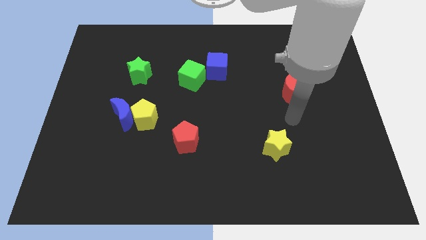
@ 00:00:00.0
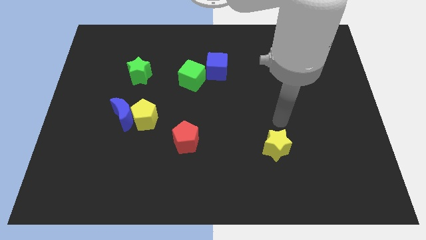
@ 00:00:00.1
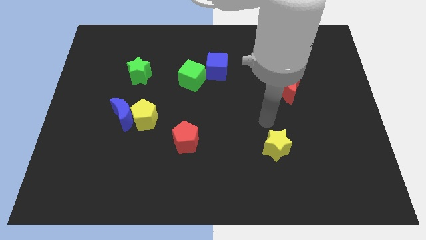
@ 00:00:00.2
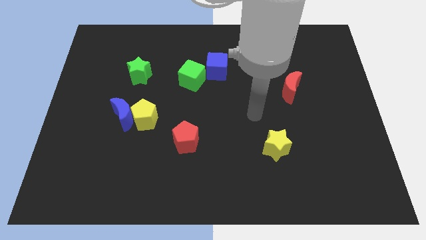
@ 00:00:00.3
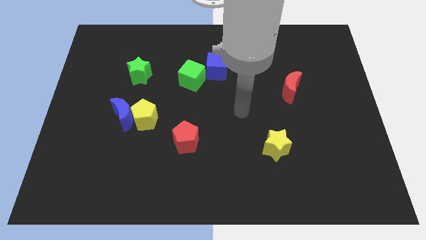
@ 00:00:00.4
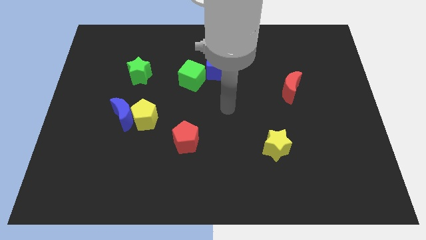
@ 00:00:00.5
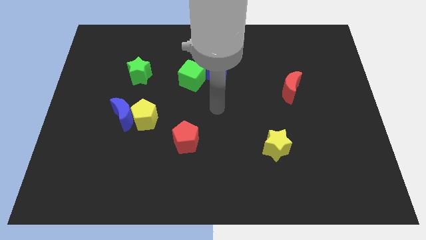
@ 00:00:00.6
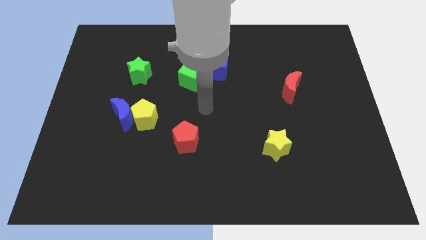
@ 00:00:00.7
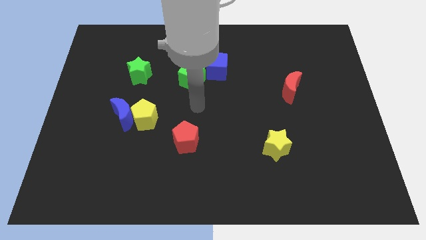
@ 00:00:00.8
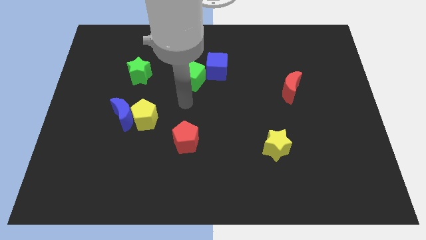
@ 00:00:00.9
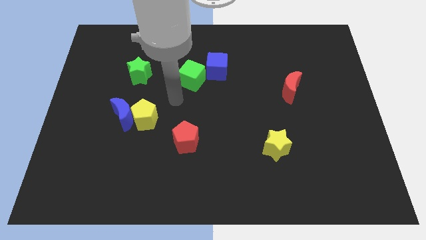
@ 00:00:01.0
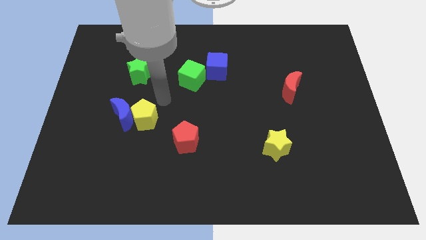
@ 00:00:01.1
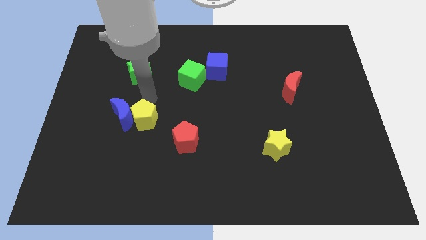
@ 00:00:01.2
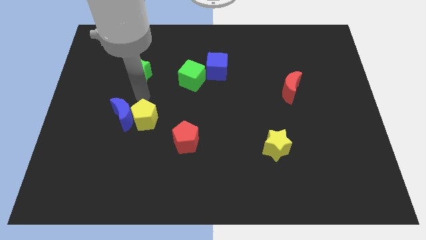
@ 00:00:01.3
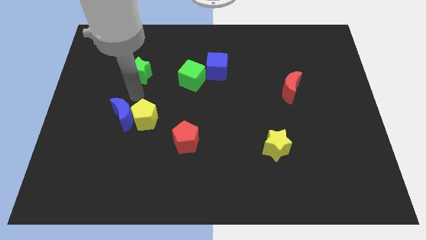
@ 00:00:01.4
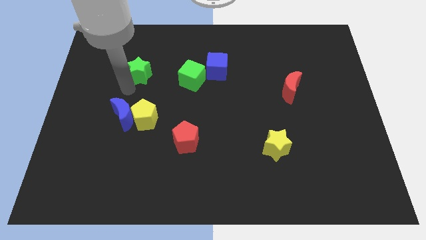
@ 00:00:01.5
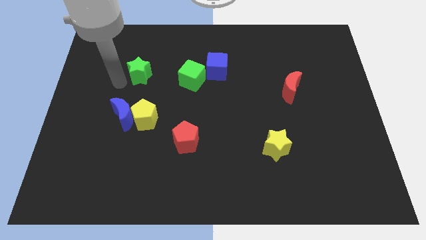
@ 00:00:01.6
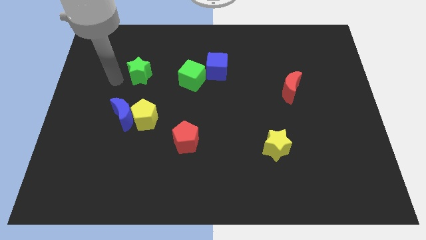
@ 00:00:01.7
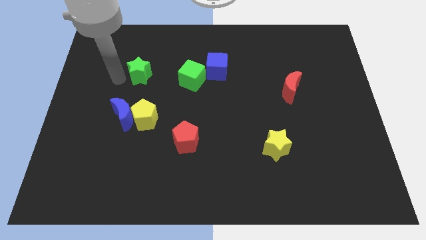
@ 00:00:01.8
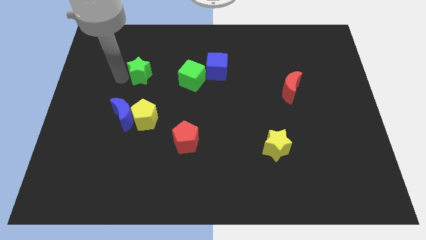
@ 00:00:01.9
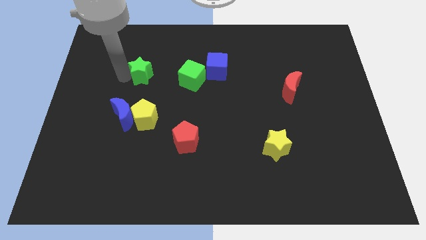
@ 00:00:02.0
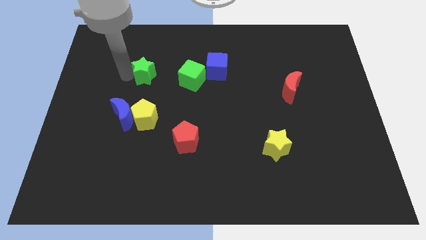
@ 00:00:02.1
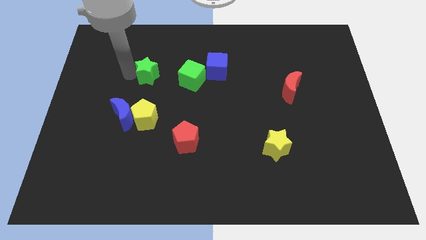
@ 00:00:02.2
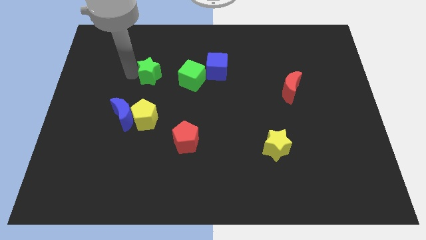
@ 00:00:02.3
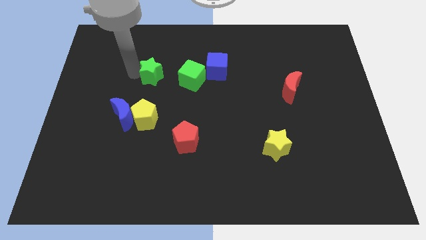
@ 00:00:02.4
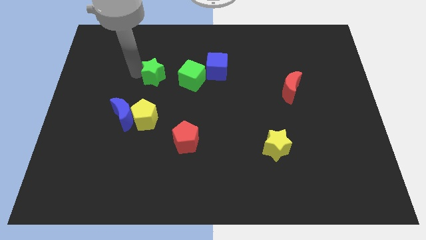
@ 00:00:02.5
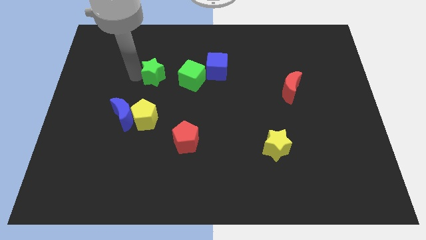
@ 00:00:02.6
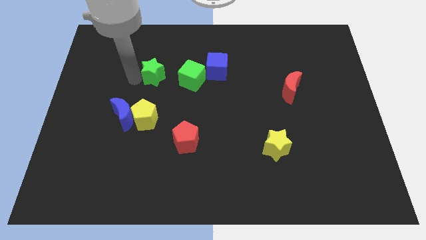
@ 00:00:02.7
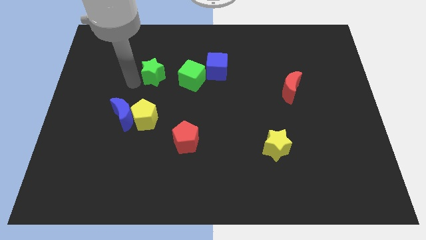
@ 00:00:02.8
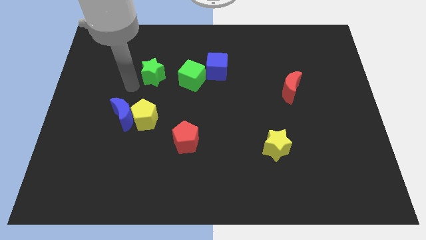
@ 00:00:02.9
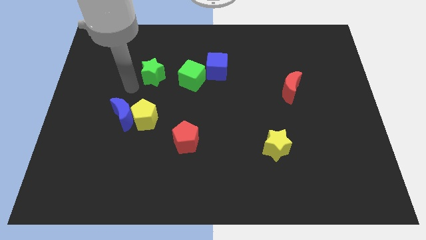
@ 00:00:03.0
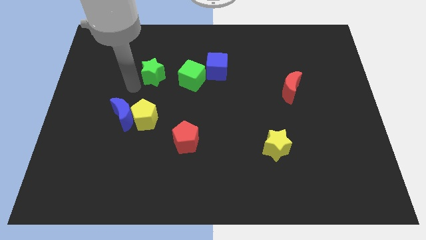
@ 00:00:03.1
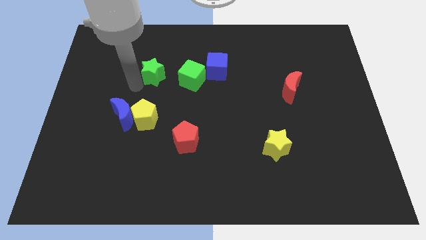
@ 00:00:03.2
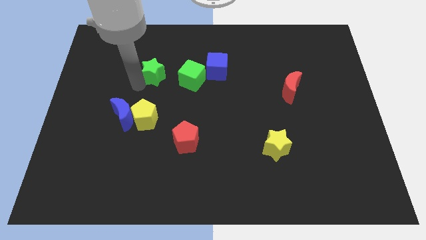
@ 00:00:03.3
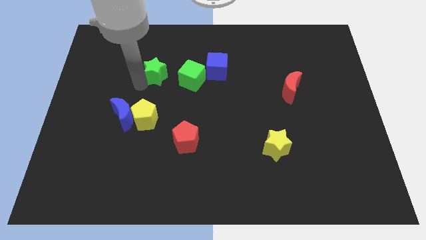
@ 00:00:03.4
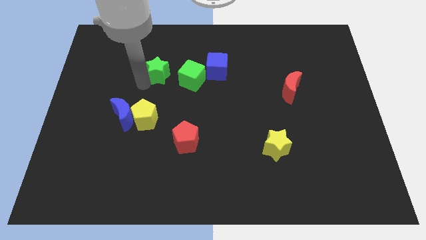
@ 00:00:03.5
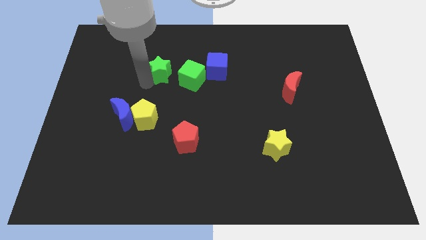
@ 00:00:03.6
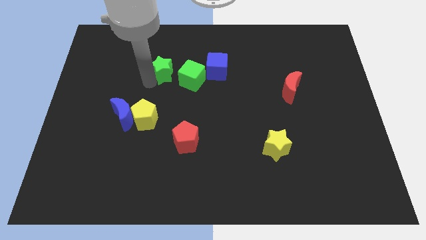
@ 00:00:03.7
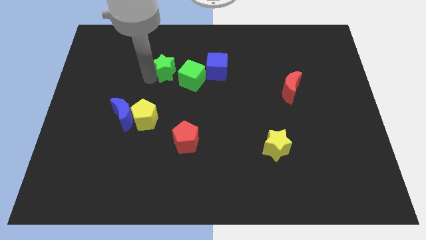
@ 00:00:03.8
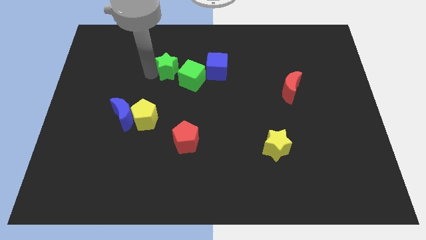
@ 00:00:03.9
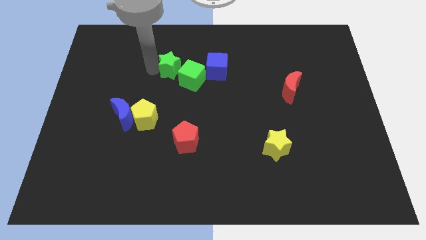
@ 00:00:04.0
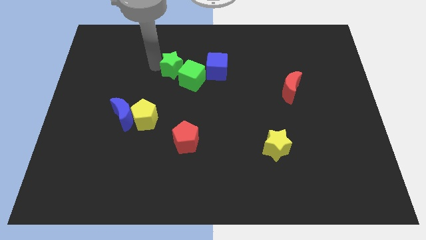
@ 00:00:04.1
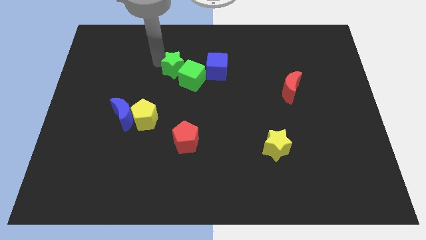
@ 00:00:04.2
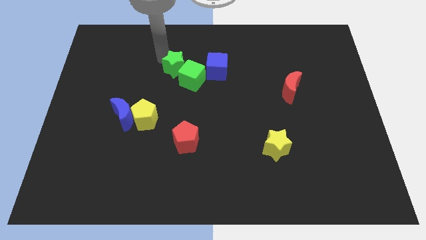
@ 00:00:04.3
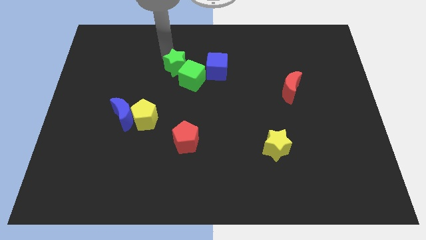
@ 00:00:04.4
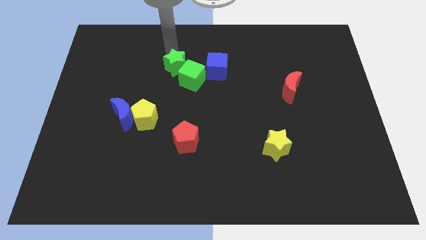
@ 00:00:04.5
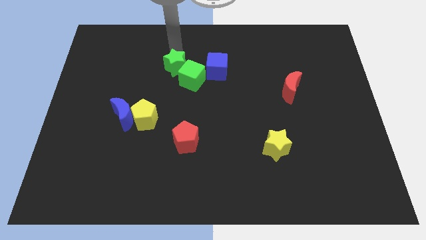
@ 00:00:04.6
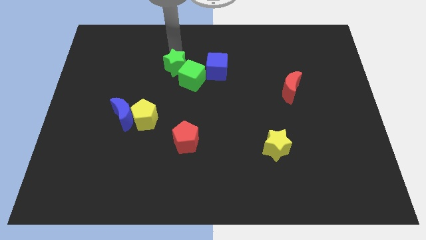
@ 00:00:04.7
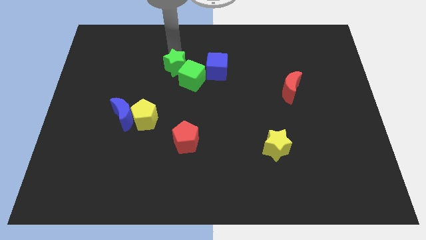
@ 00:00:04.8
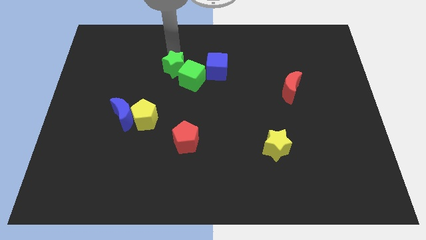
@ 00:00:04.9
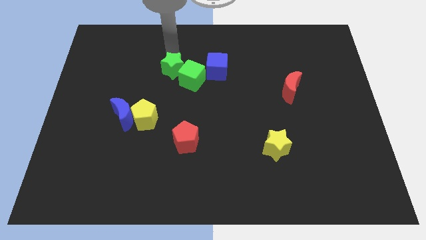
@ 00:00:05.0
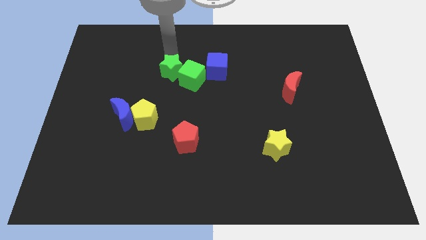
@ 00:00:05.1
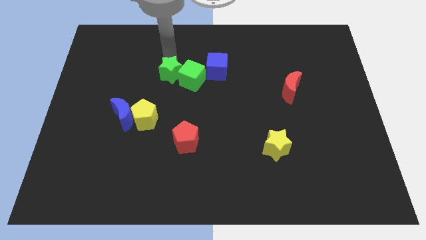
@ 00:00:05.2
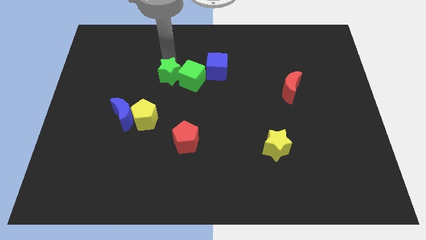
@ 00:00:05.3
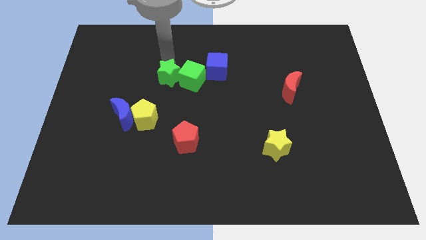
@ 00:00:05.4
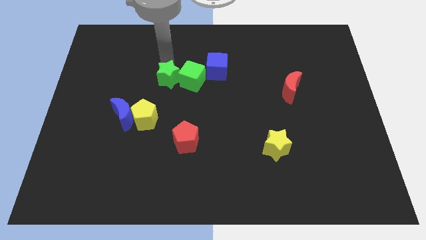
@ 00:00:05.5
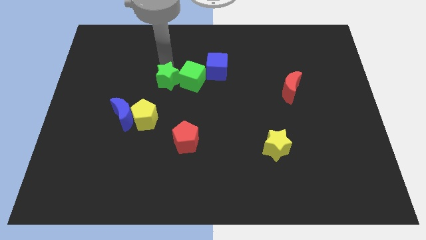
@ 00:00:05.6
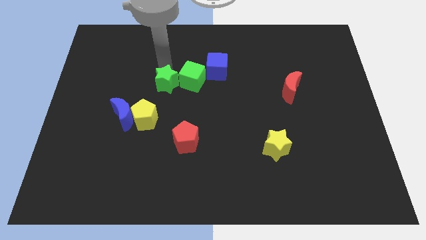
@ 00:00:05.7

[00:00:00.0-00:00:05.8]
put the green star to the center
